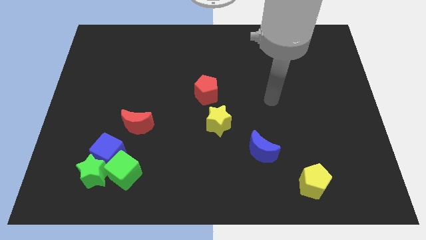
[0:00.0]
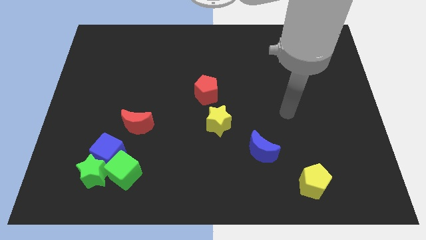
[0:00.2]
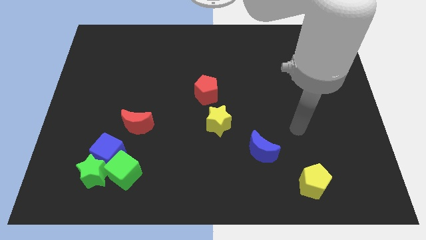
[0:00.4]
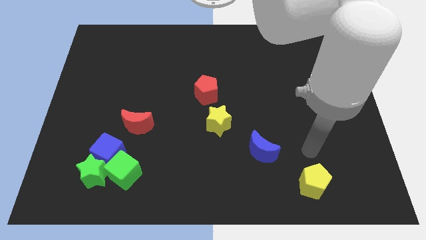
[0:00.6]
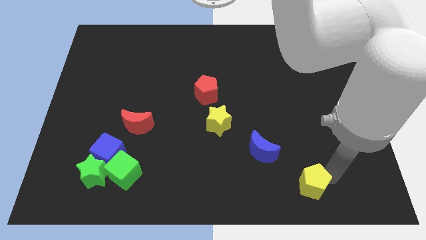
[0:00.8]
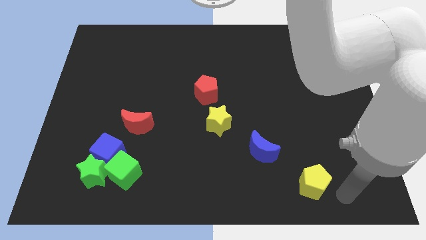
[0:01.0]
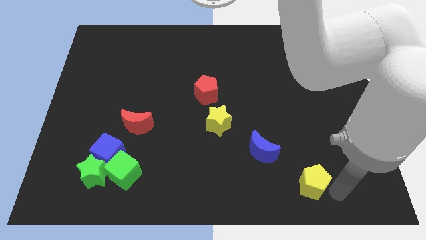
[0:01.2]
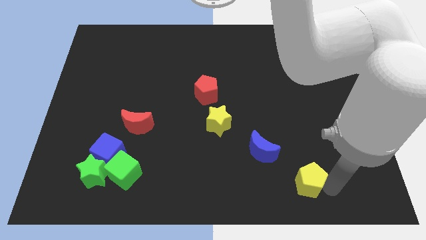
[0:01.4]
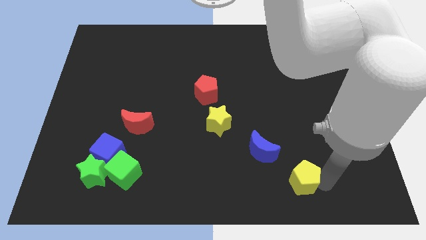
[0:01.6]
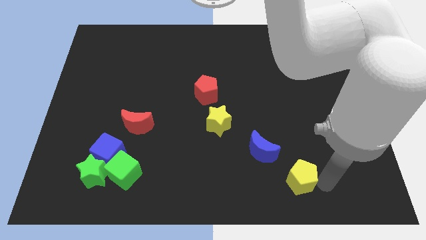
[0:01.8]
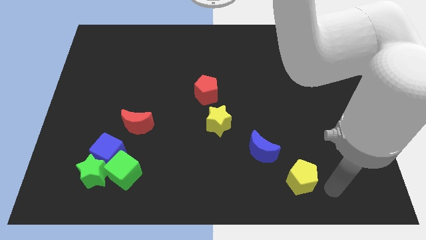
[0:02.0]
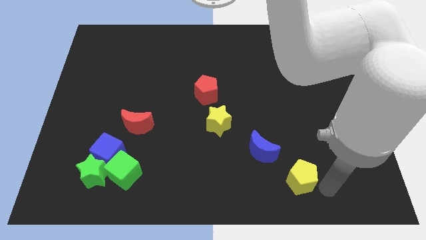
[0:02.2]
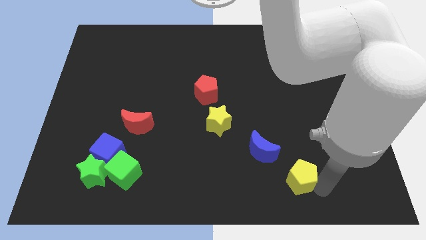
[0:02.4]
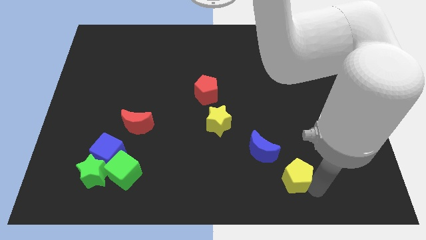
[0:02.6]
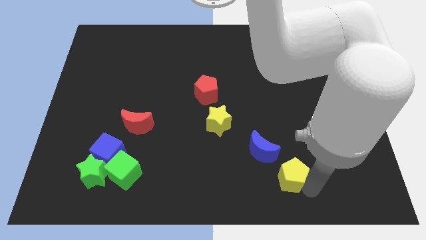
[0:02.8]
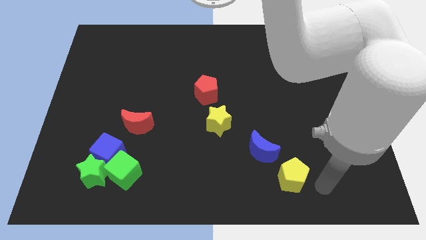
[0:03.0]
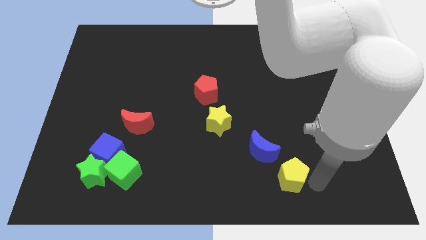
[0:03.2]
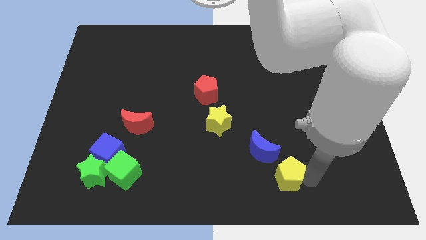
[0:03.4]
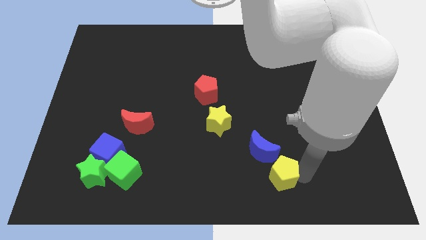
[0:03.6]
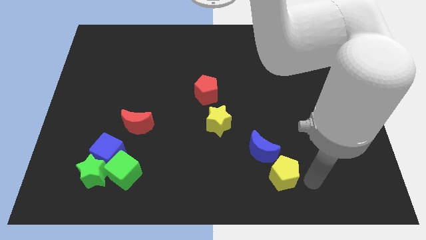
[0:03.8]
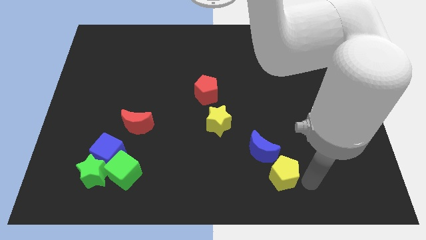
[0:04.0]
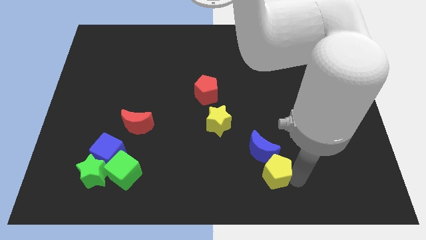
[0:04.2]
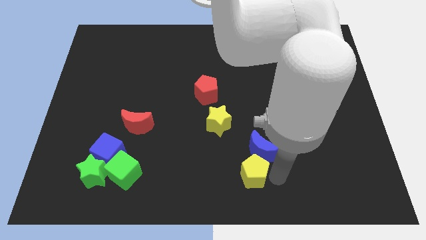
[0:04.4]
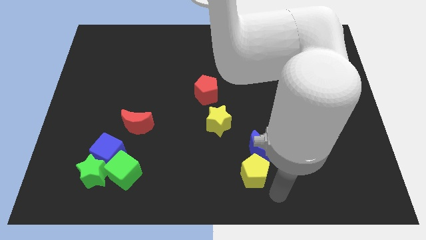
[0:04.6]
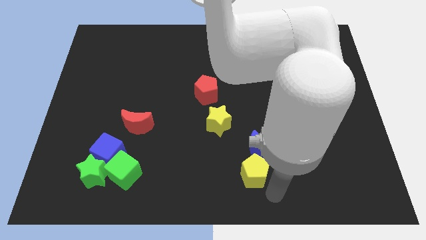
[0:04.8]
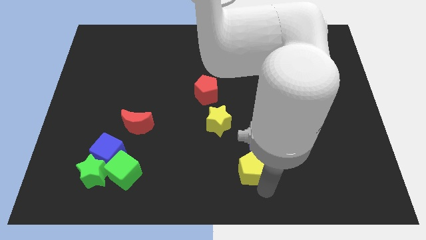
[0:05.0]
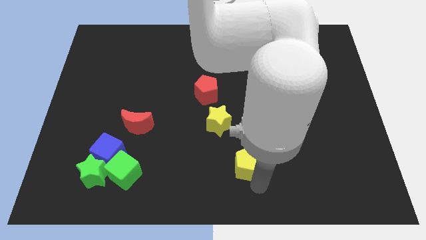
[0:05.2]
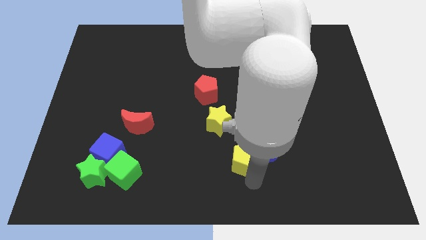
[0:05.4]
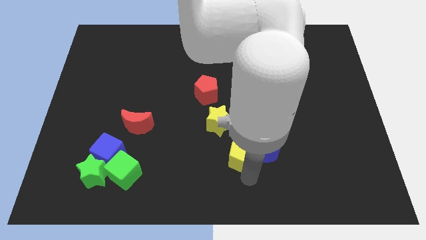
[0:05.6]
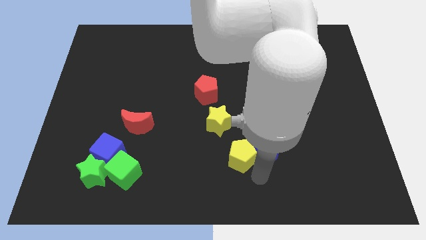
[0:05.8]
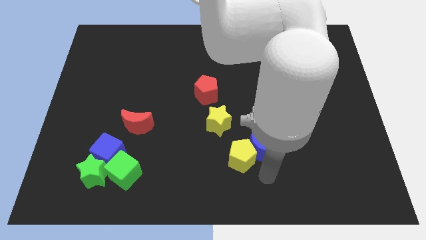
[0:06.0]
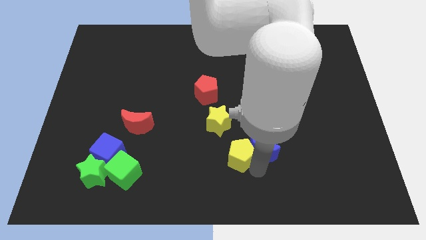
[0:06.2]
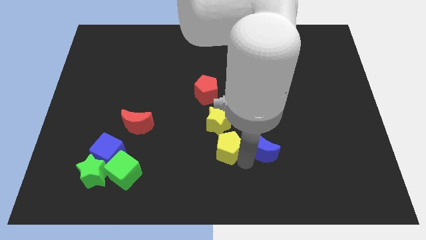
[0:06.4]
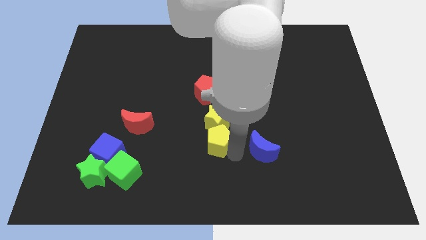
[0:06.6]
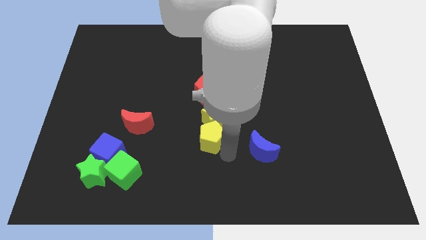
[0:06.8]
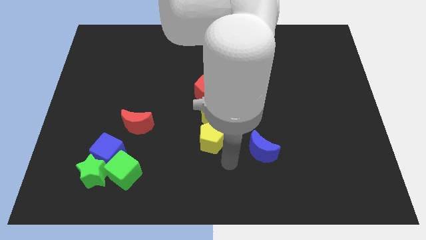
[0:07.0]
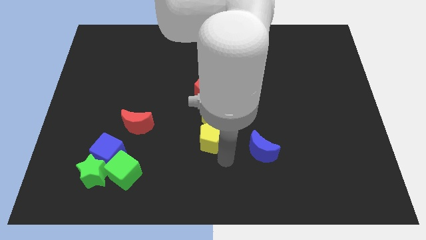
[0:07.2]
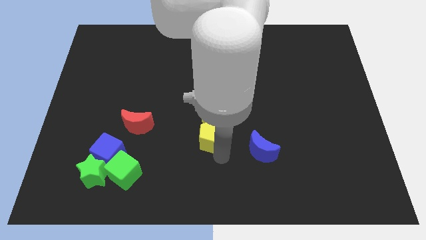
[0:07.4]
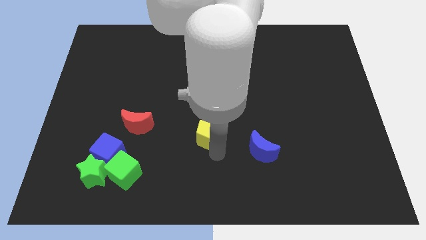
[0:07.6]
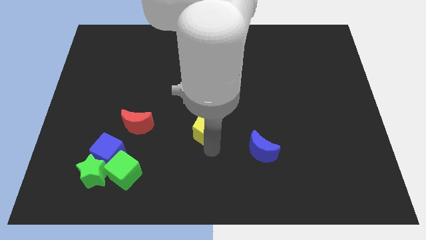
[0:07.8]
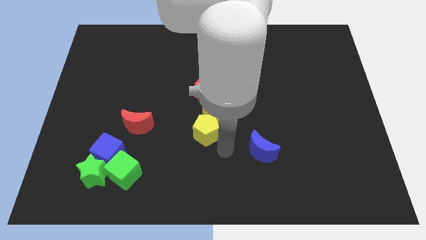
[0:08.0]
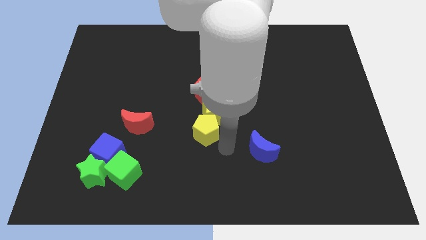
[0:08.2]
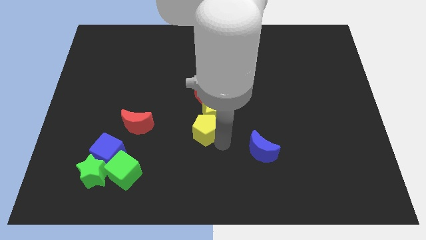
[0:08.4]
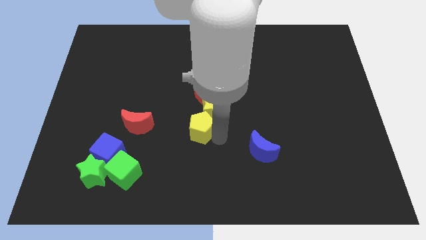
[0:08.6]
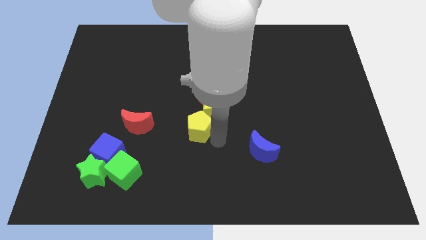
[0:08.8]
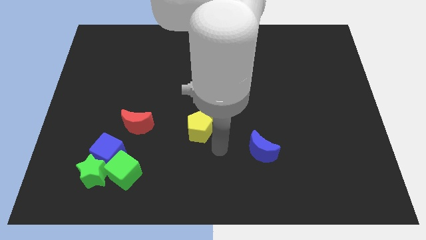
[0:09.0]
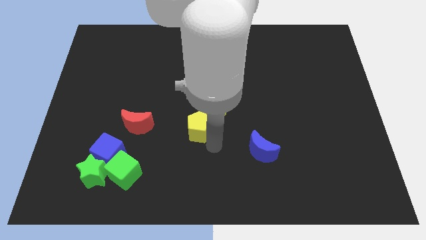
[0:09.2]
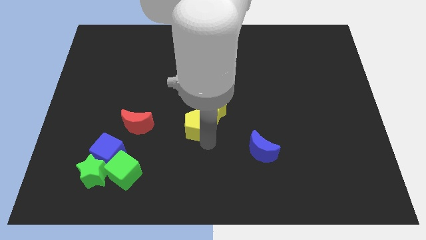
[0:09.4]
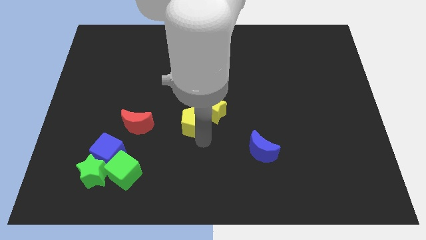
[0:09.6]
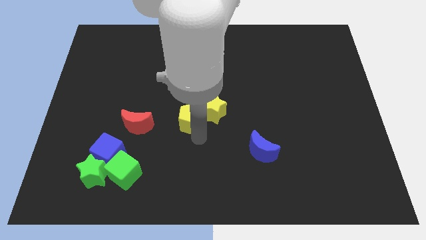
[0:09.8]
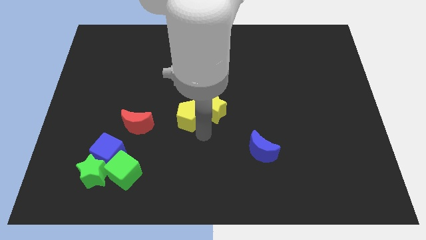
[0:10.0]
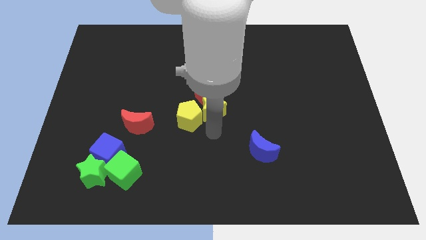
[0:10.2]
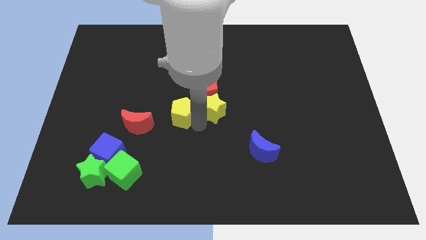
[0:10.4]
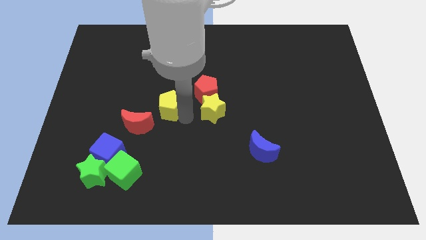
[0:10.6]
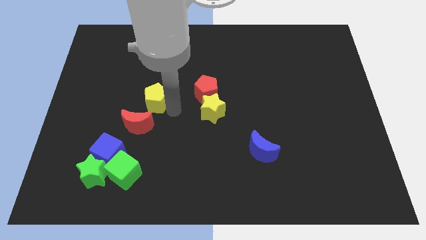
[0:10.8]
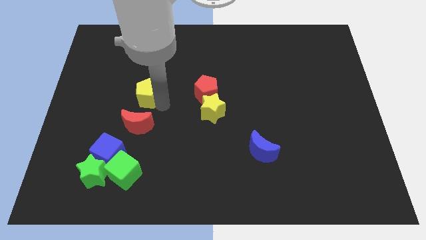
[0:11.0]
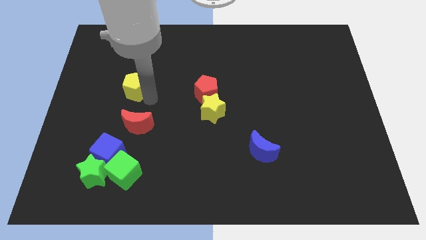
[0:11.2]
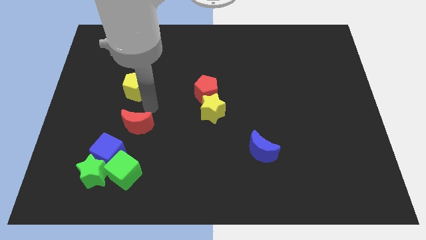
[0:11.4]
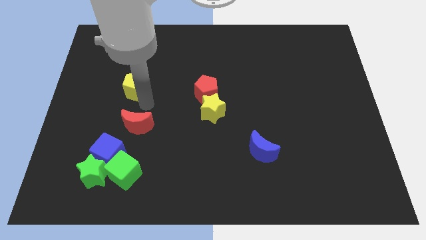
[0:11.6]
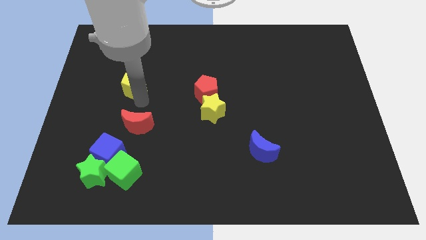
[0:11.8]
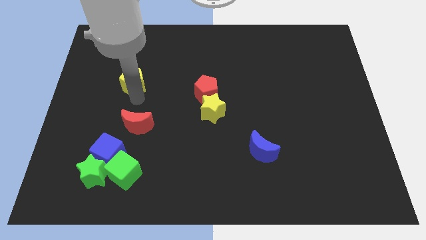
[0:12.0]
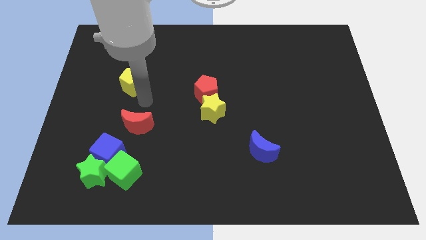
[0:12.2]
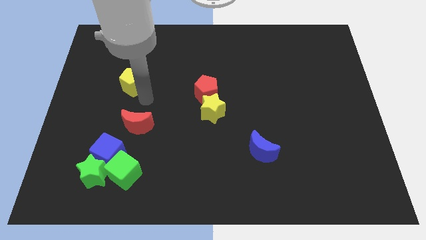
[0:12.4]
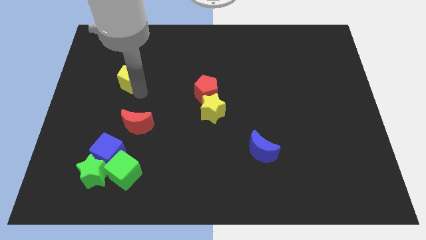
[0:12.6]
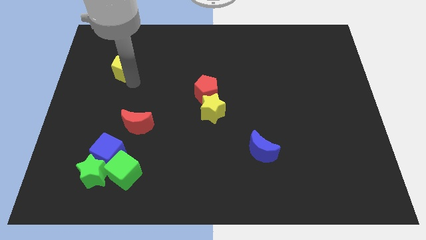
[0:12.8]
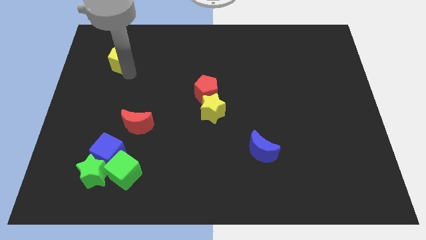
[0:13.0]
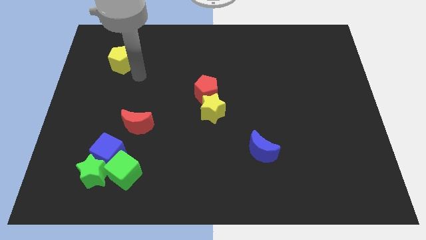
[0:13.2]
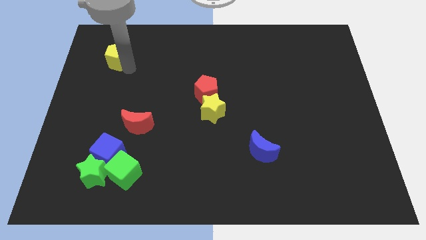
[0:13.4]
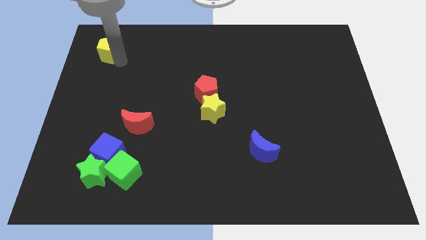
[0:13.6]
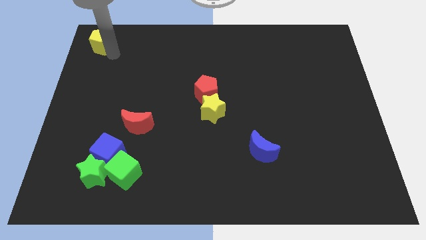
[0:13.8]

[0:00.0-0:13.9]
slide the yellow pentagon to the top left of the board
